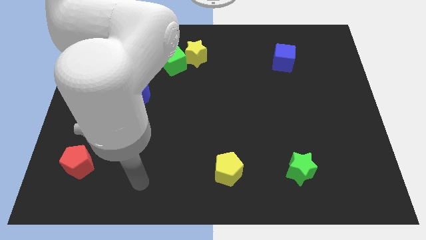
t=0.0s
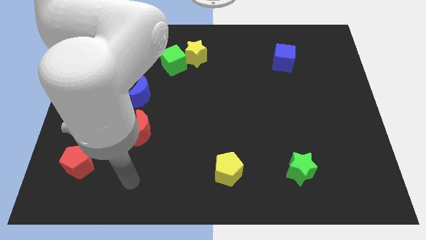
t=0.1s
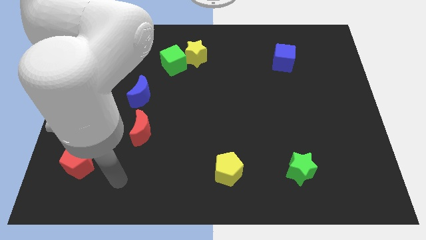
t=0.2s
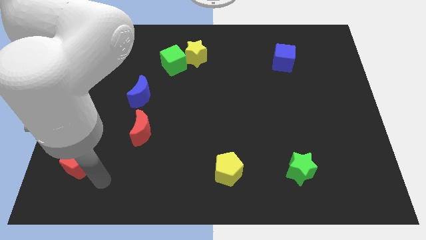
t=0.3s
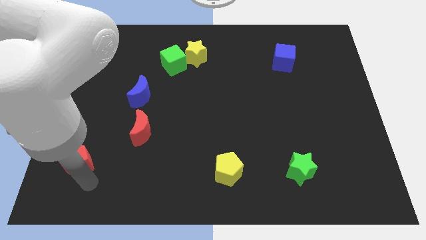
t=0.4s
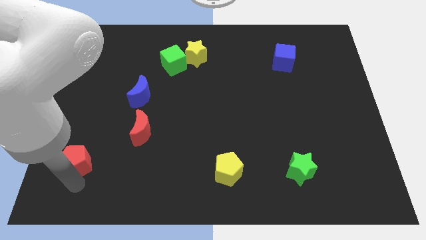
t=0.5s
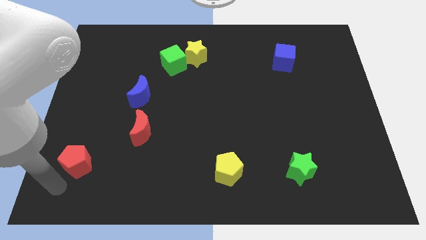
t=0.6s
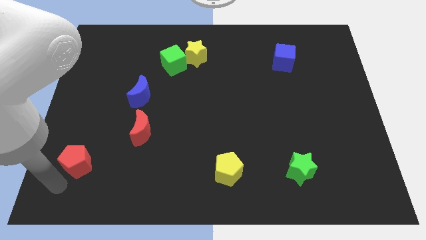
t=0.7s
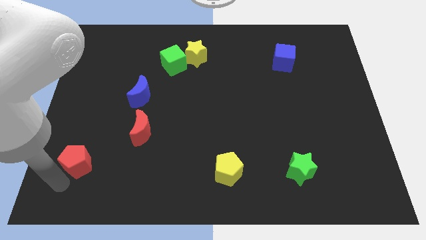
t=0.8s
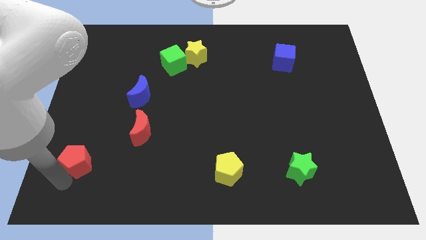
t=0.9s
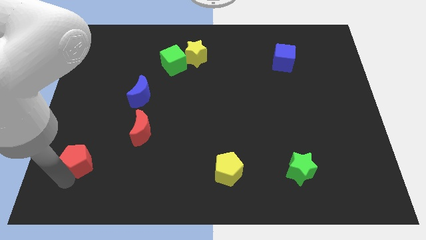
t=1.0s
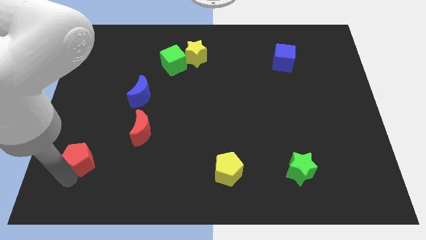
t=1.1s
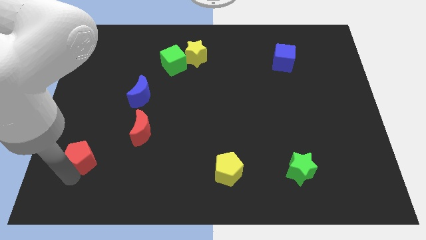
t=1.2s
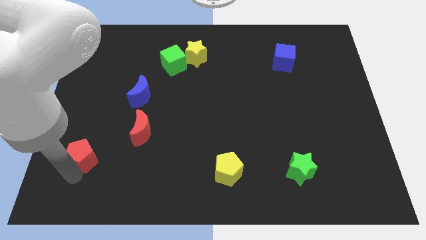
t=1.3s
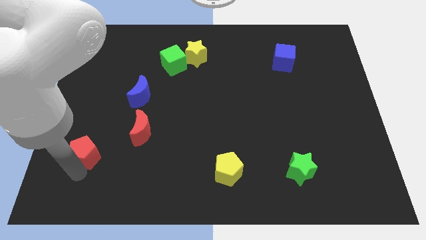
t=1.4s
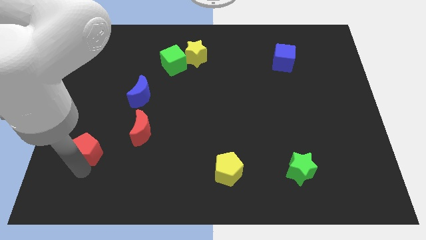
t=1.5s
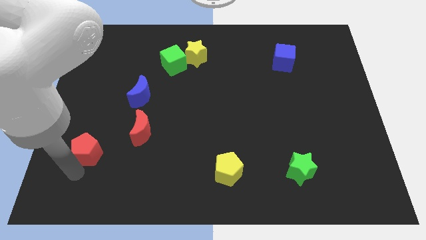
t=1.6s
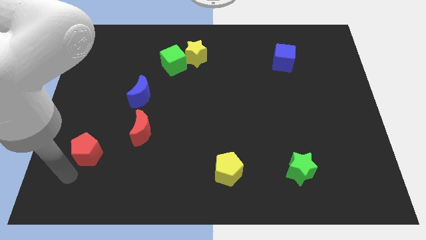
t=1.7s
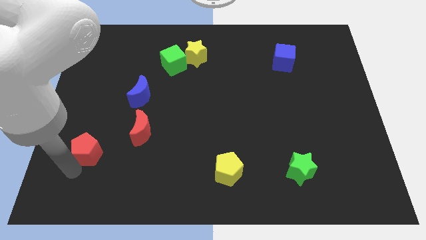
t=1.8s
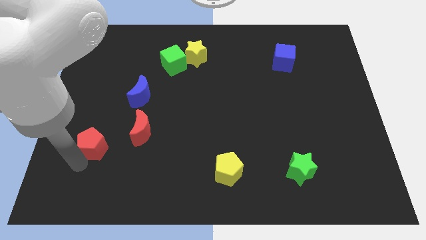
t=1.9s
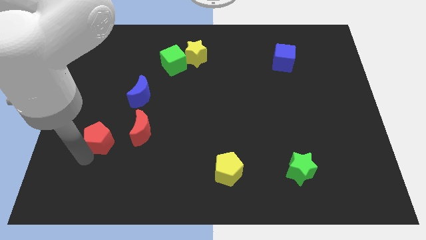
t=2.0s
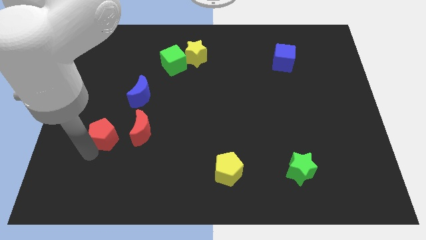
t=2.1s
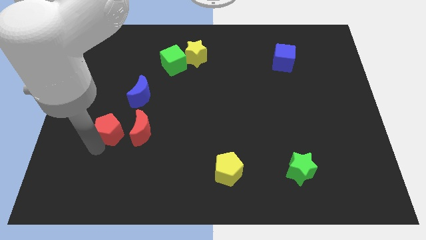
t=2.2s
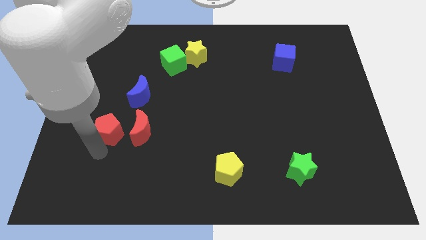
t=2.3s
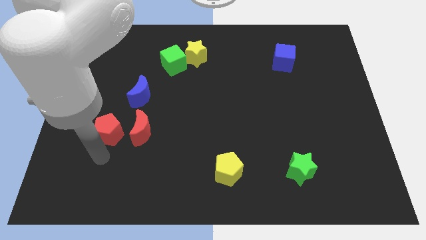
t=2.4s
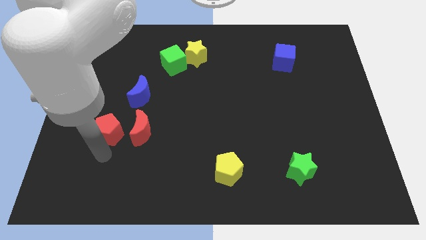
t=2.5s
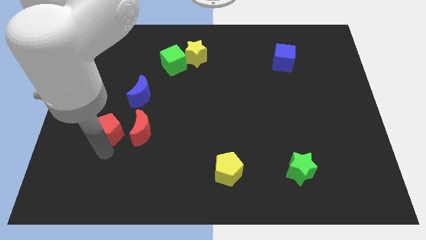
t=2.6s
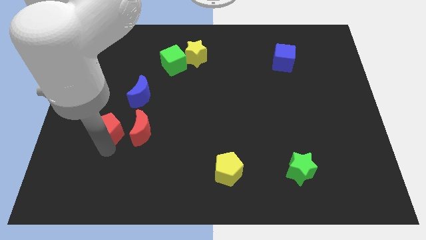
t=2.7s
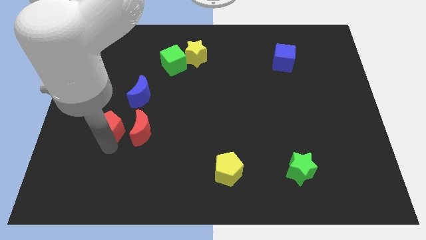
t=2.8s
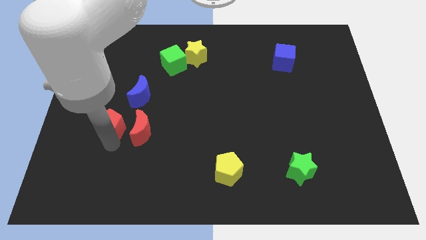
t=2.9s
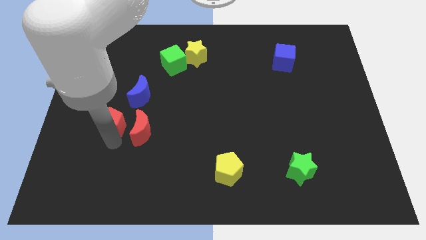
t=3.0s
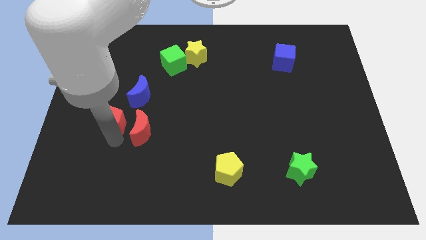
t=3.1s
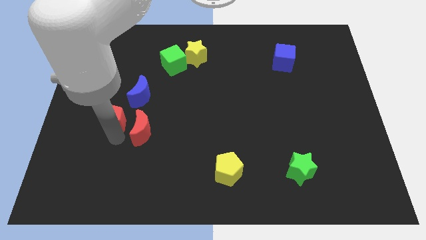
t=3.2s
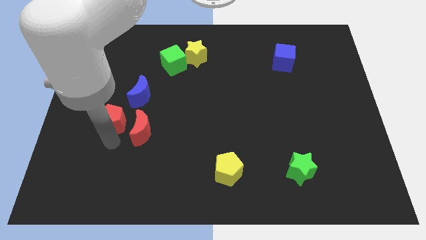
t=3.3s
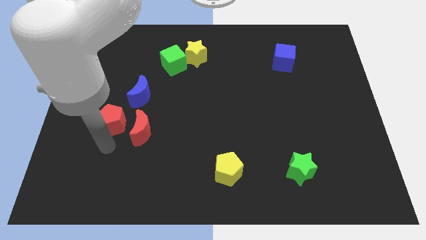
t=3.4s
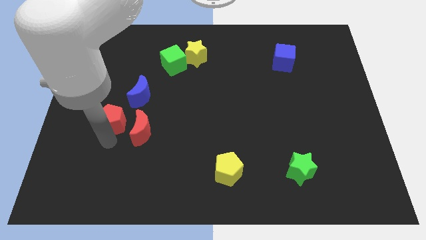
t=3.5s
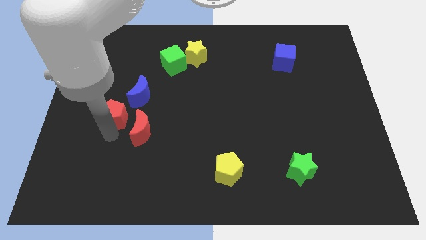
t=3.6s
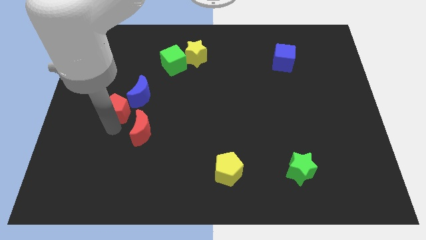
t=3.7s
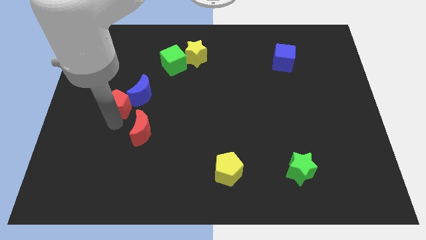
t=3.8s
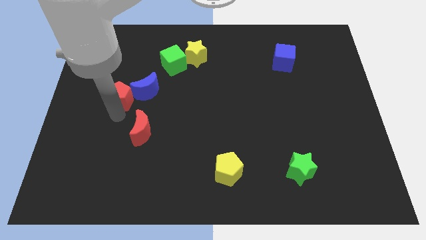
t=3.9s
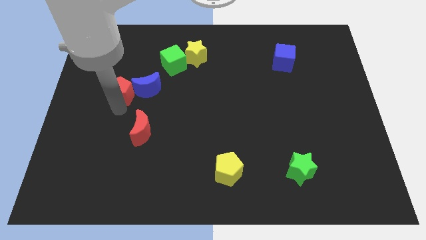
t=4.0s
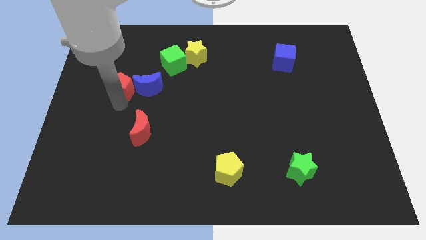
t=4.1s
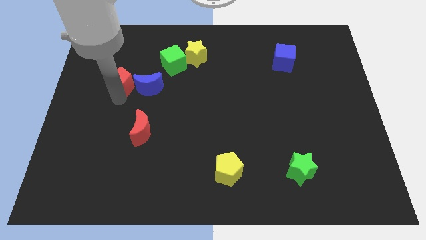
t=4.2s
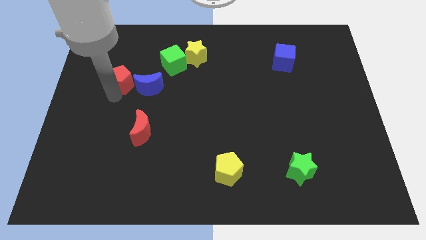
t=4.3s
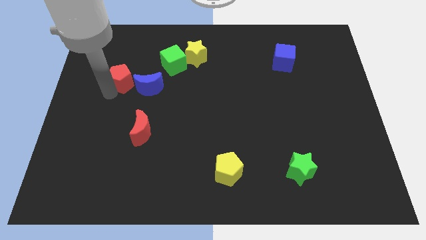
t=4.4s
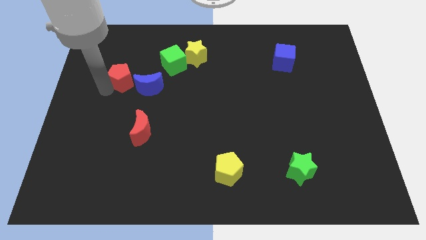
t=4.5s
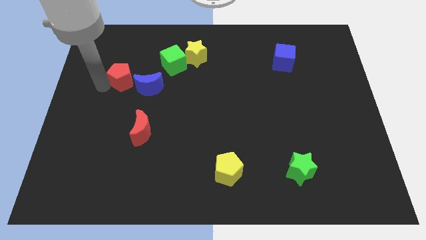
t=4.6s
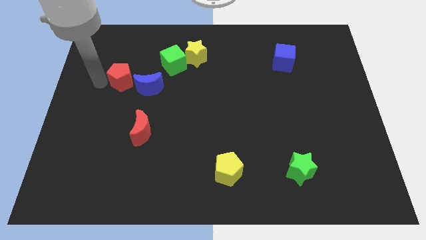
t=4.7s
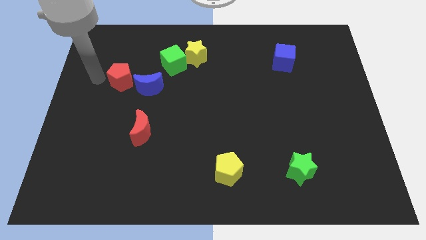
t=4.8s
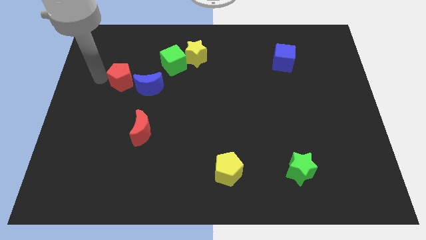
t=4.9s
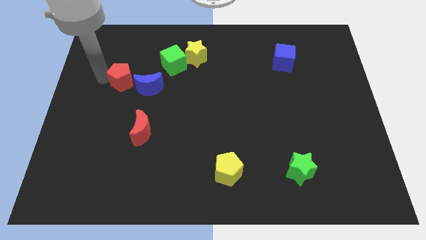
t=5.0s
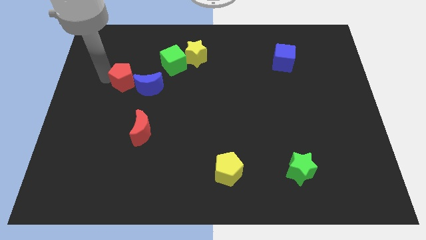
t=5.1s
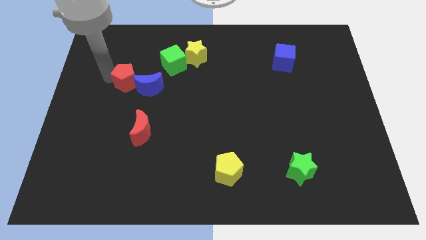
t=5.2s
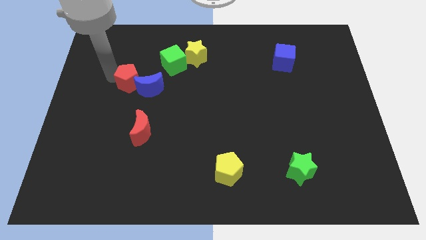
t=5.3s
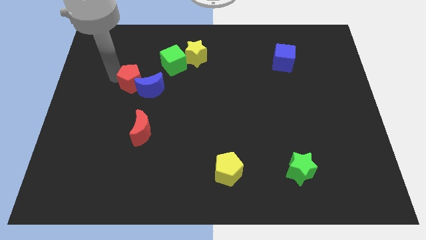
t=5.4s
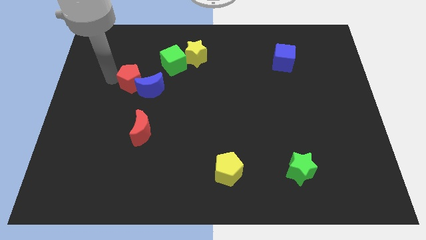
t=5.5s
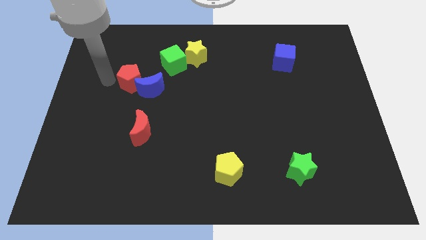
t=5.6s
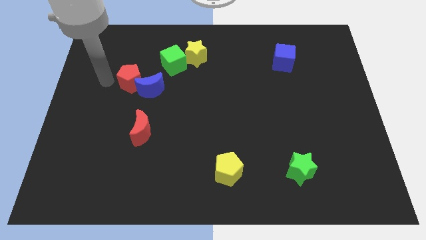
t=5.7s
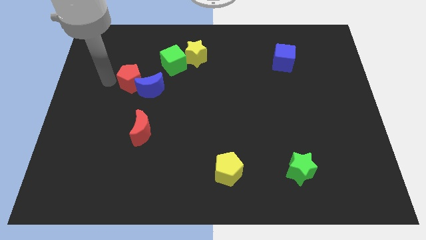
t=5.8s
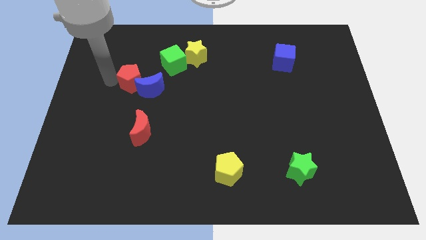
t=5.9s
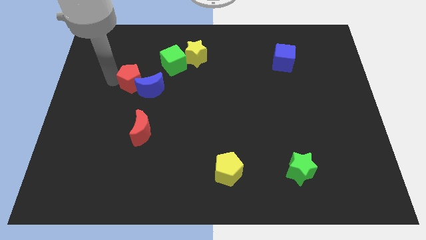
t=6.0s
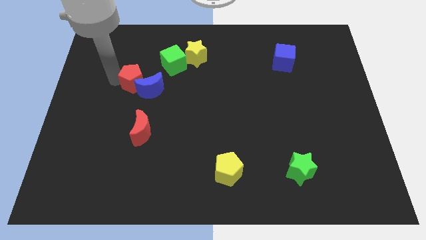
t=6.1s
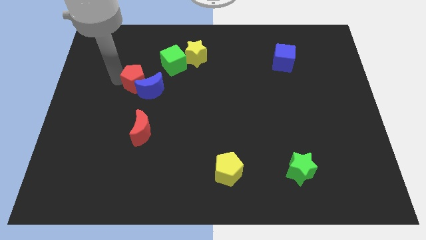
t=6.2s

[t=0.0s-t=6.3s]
slide the red pentagon to the top of the red moon

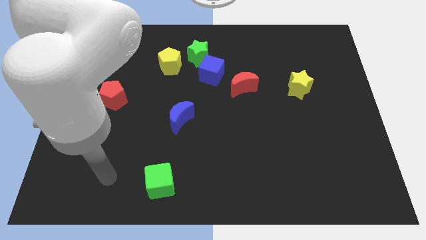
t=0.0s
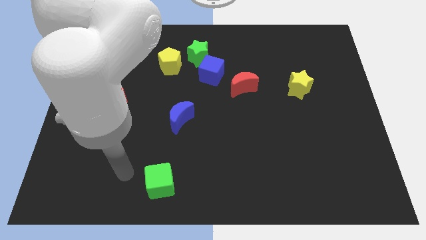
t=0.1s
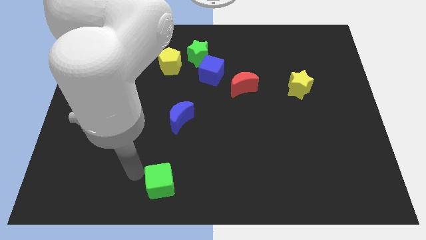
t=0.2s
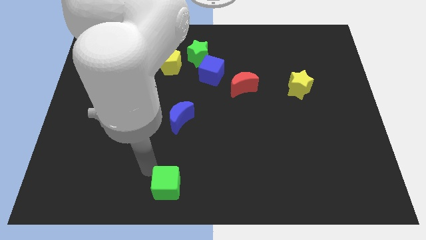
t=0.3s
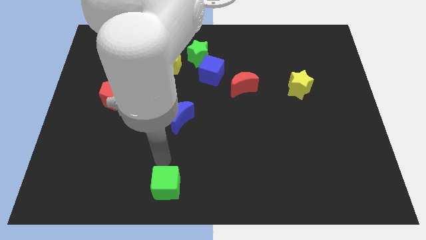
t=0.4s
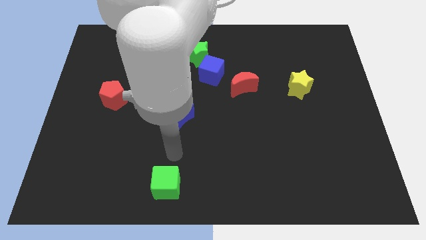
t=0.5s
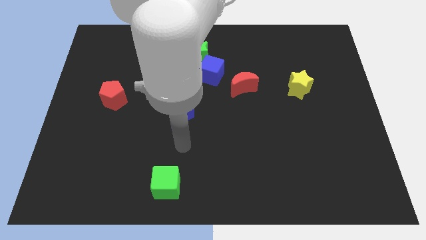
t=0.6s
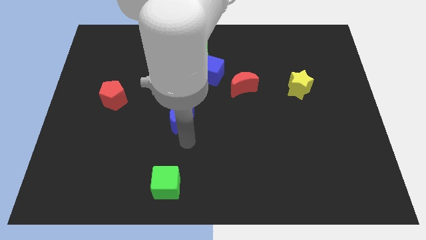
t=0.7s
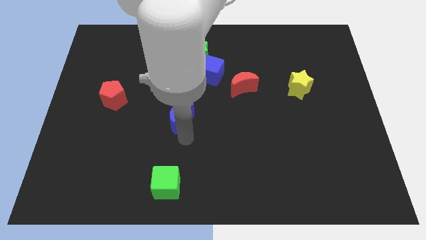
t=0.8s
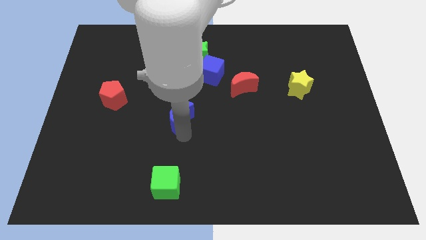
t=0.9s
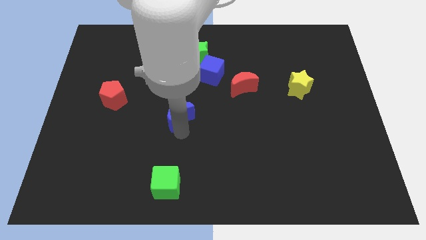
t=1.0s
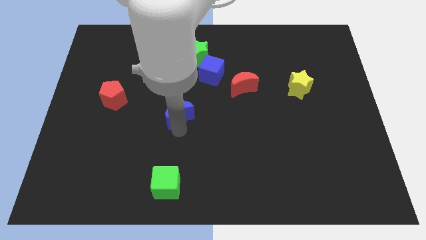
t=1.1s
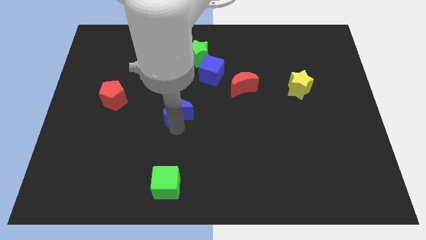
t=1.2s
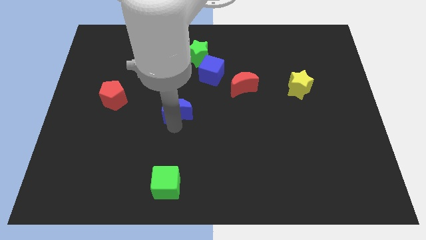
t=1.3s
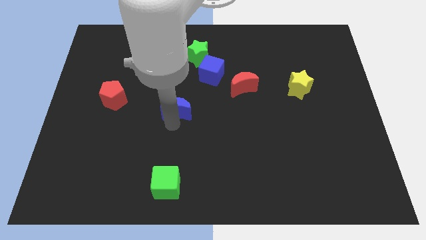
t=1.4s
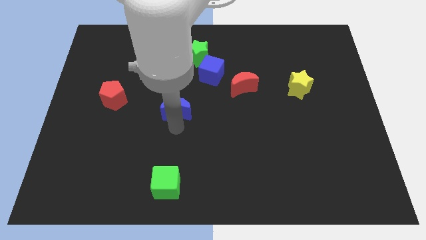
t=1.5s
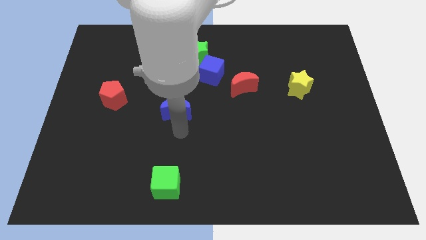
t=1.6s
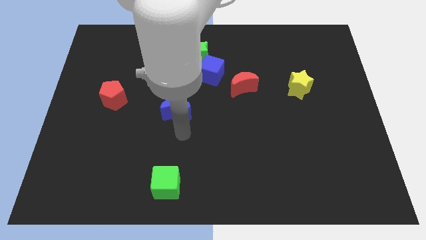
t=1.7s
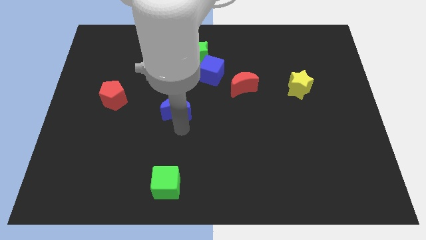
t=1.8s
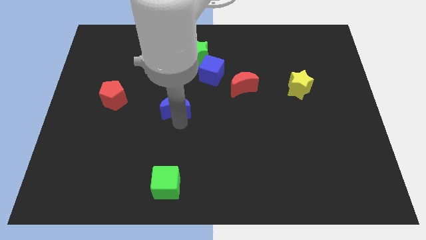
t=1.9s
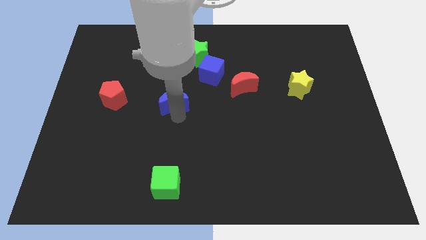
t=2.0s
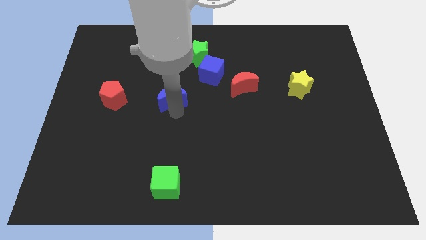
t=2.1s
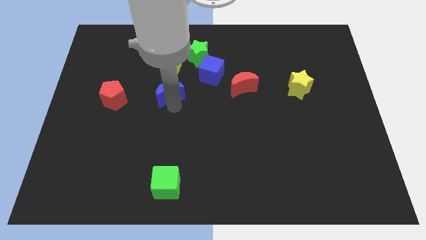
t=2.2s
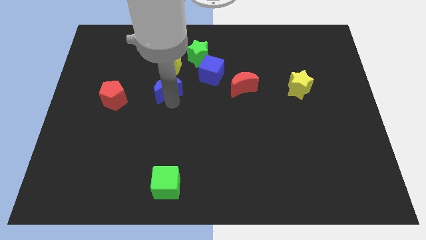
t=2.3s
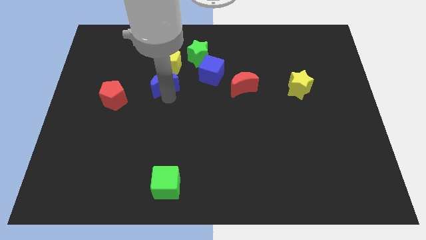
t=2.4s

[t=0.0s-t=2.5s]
slide the blue moon to the left of the blue cube
